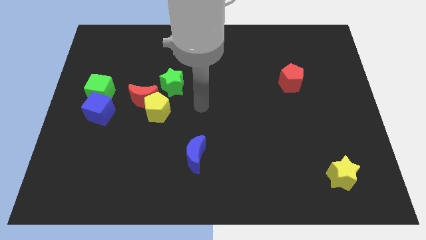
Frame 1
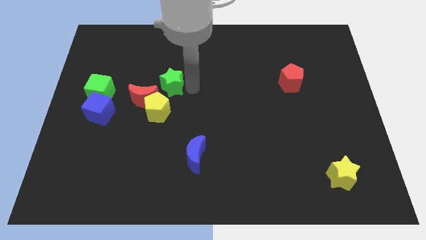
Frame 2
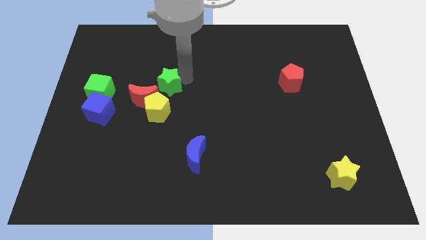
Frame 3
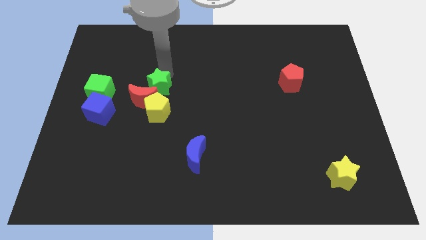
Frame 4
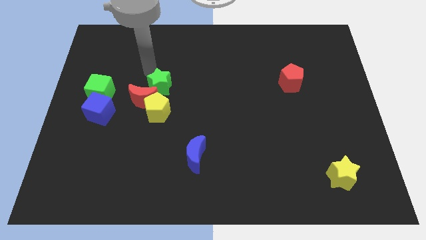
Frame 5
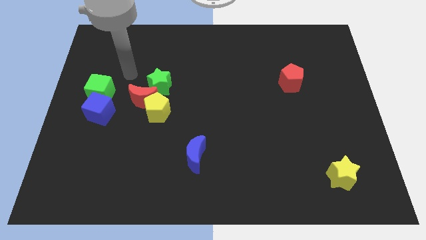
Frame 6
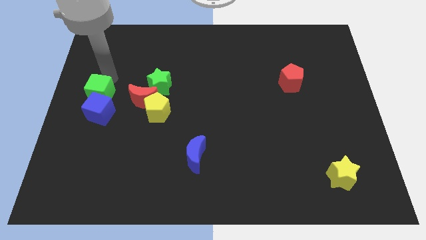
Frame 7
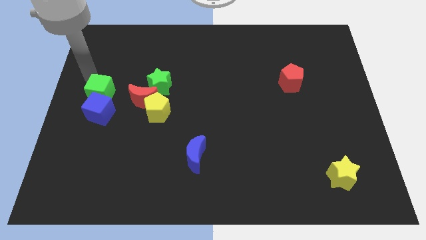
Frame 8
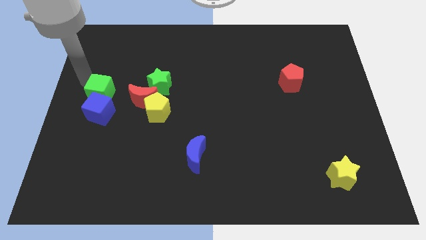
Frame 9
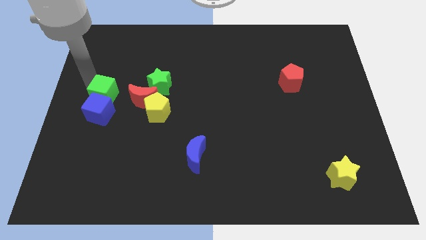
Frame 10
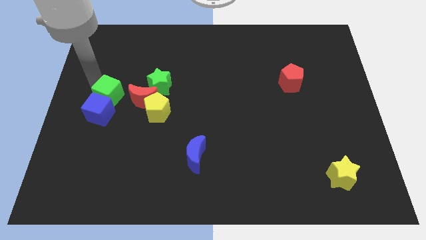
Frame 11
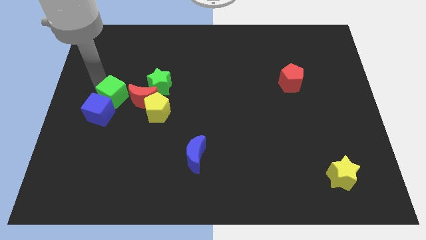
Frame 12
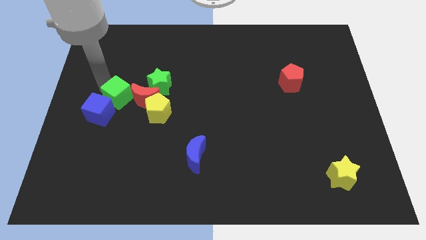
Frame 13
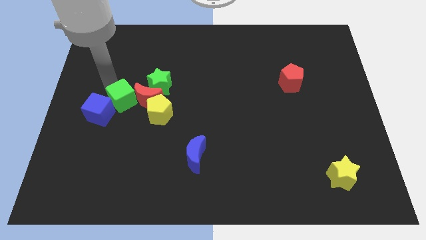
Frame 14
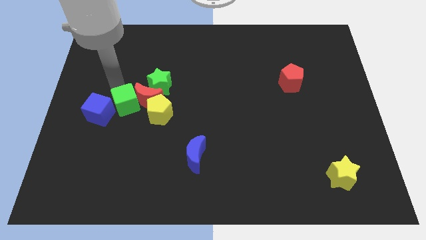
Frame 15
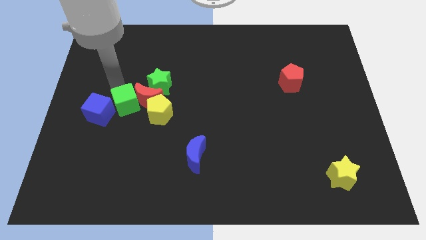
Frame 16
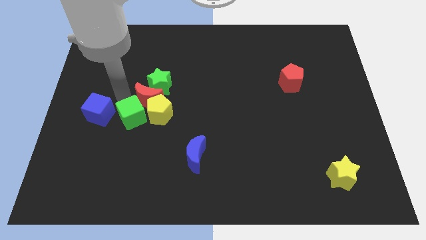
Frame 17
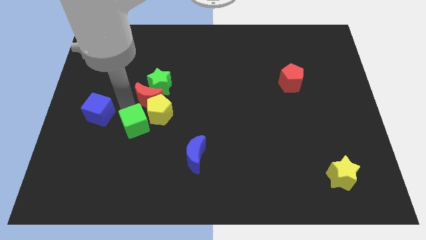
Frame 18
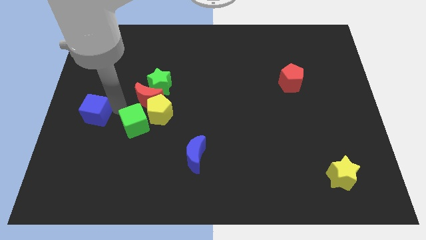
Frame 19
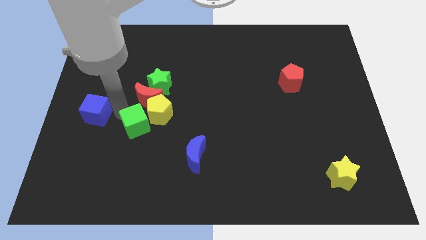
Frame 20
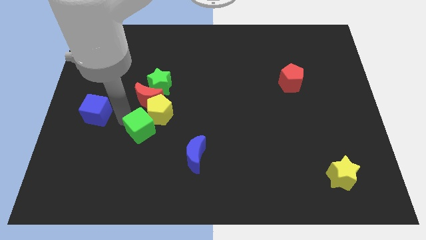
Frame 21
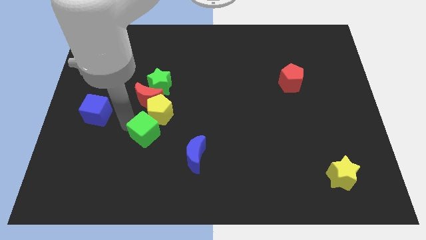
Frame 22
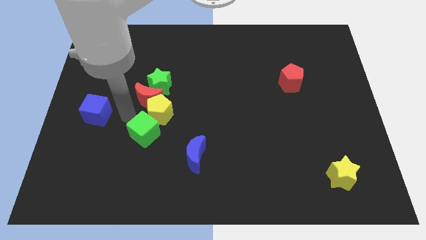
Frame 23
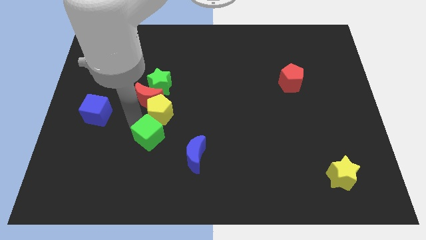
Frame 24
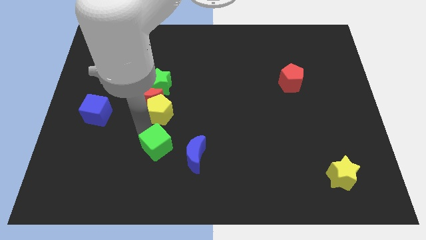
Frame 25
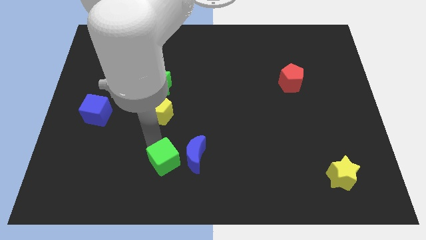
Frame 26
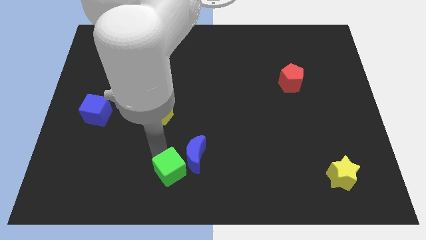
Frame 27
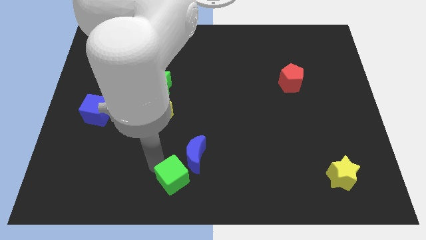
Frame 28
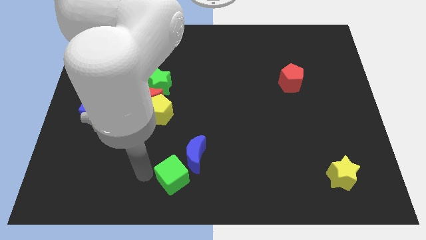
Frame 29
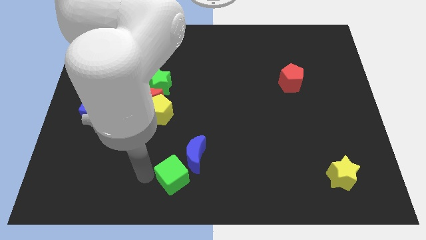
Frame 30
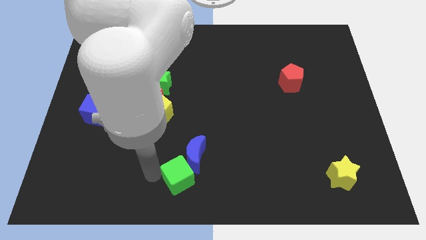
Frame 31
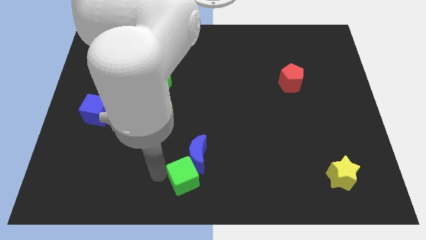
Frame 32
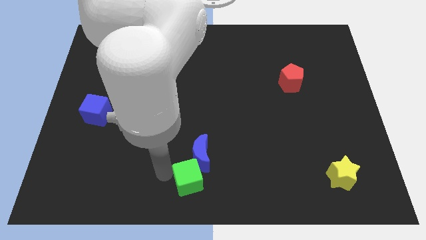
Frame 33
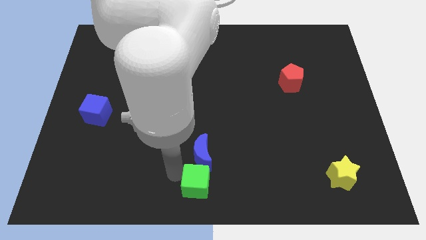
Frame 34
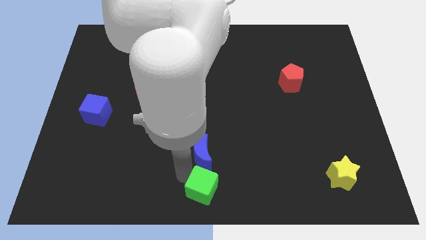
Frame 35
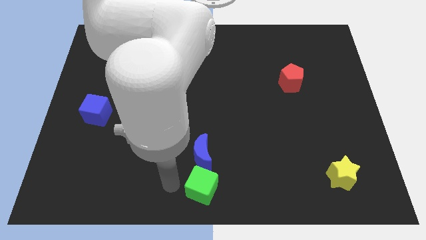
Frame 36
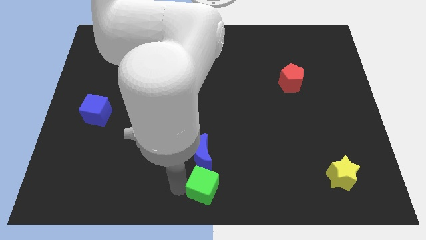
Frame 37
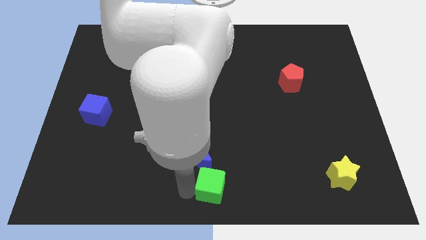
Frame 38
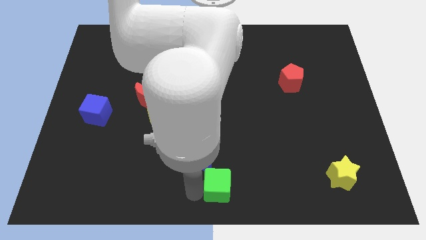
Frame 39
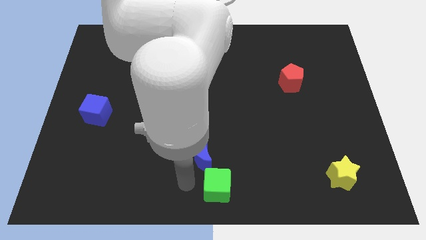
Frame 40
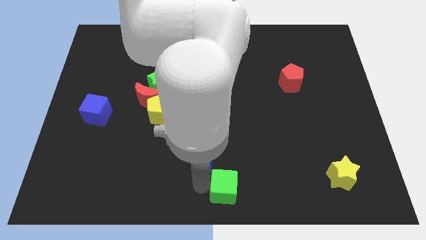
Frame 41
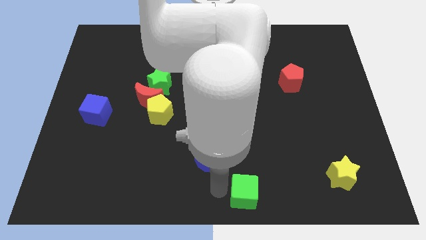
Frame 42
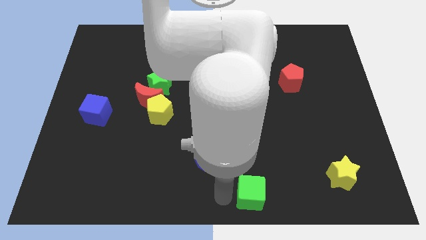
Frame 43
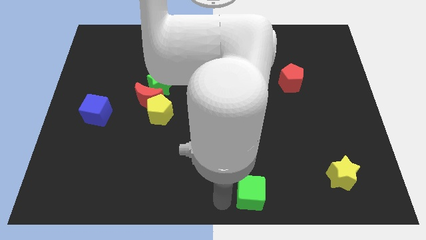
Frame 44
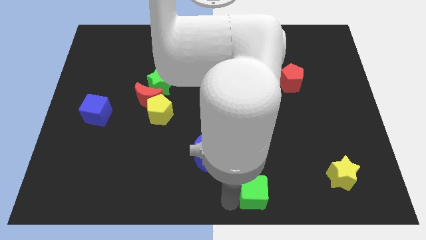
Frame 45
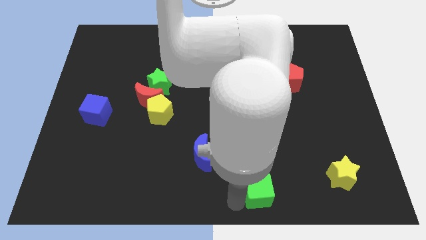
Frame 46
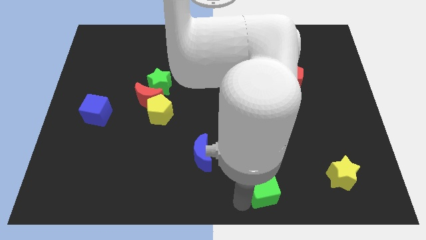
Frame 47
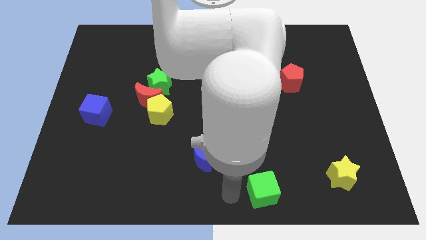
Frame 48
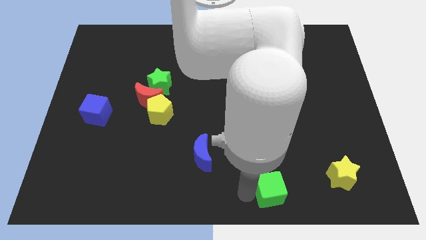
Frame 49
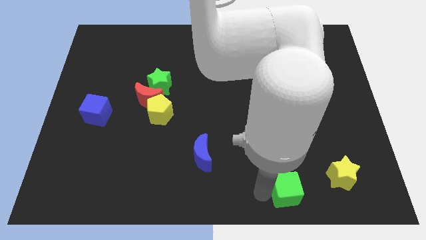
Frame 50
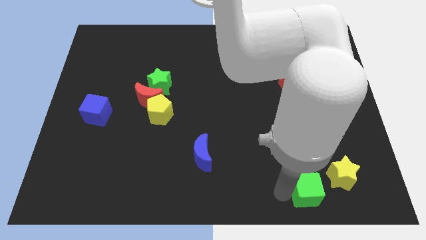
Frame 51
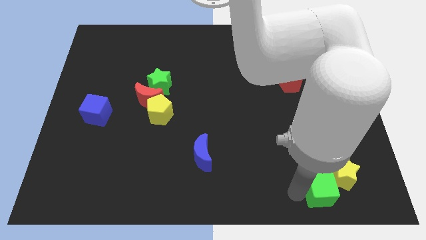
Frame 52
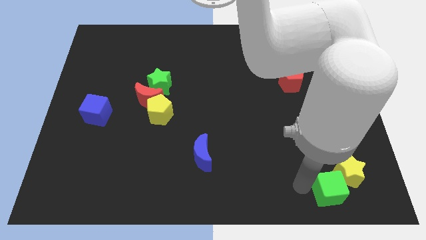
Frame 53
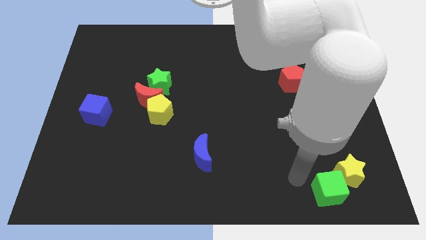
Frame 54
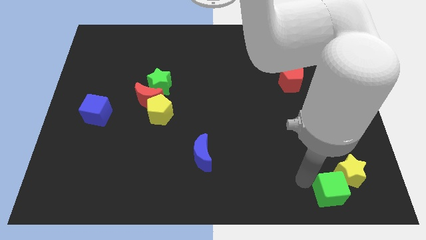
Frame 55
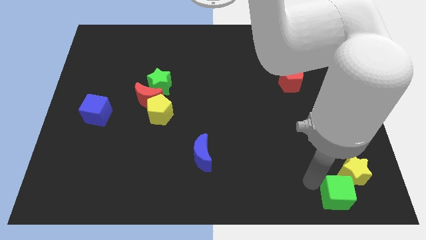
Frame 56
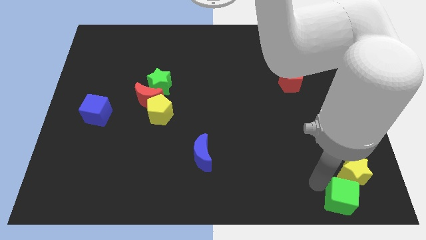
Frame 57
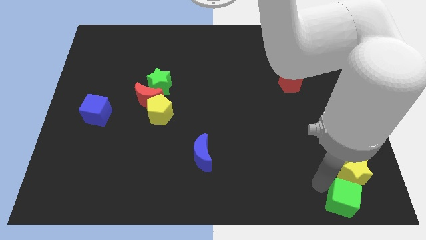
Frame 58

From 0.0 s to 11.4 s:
put the green cube to the bottom right of the board
